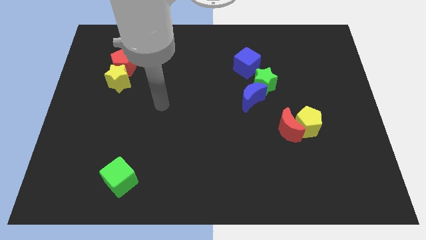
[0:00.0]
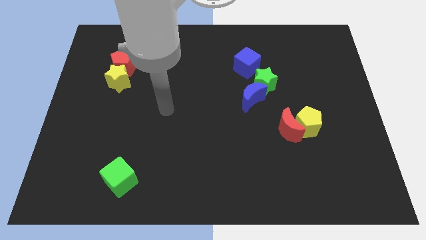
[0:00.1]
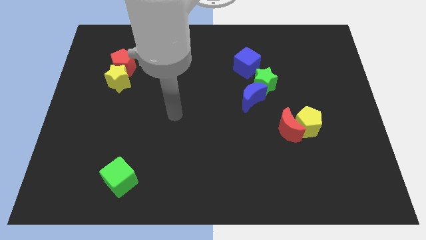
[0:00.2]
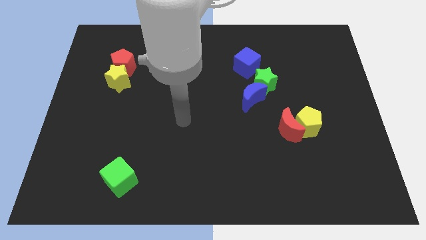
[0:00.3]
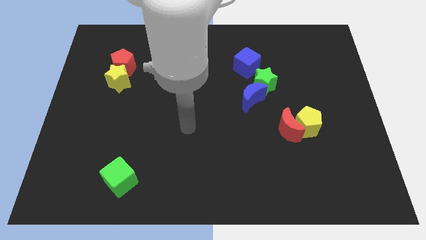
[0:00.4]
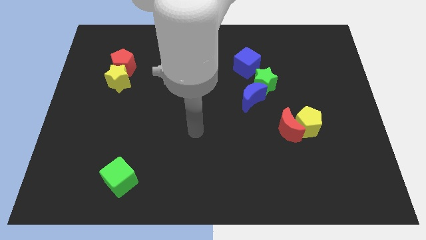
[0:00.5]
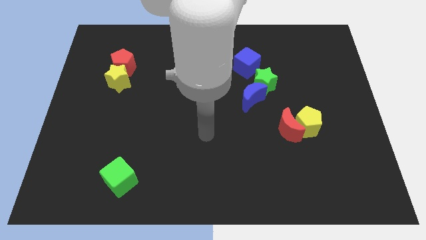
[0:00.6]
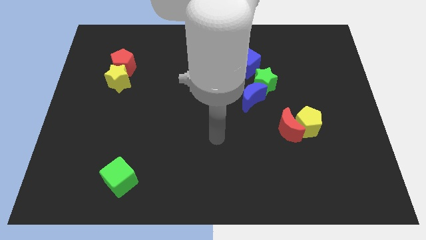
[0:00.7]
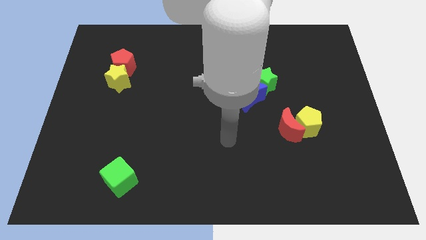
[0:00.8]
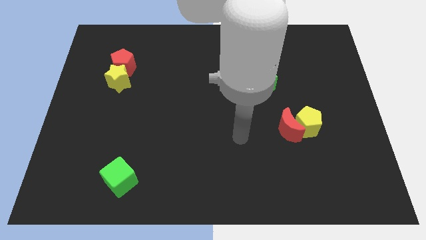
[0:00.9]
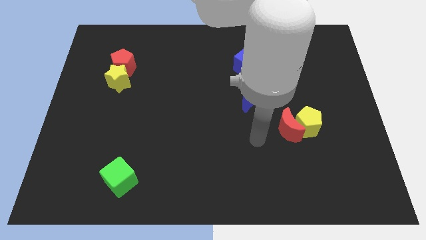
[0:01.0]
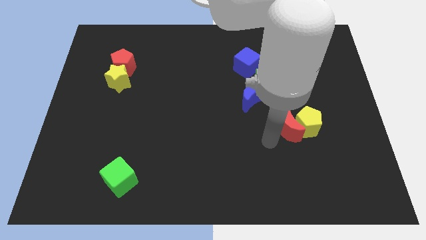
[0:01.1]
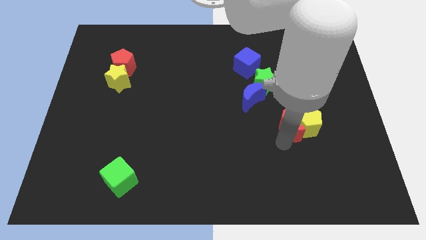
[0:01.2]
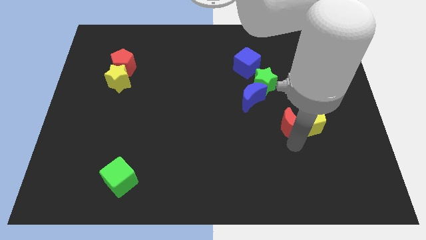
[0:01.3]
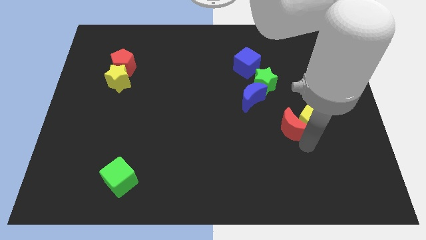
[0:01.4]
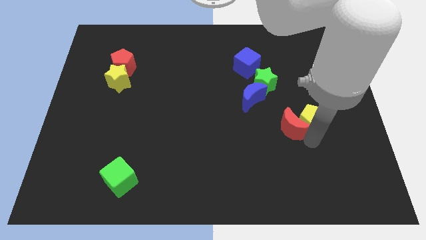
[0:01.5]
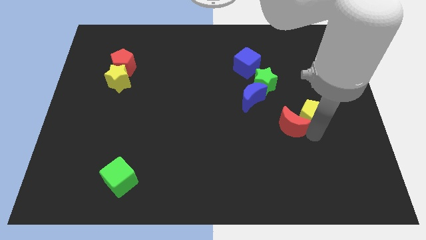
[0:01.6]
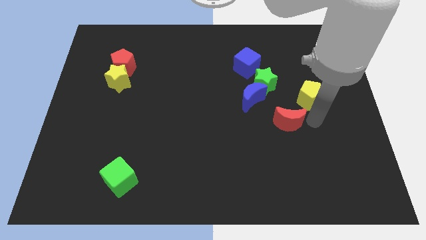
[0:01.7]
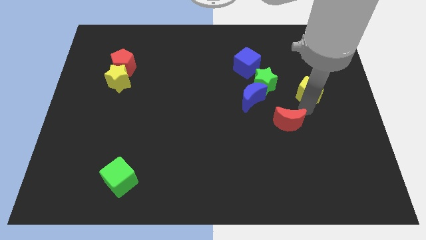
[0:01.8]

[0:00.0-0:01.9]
pull the red moon apart from the yellow pentagon

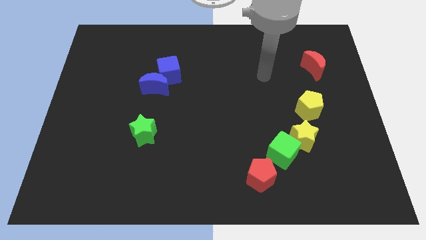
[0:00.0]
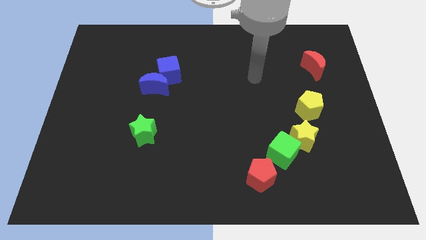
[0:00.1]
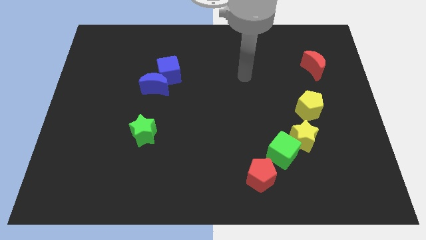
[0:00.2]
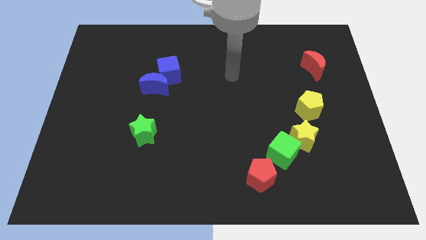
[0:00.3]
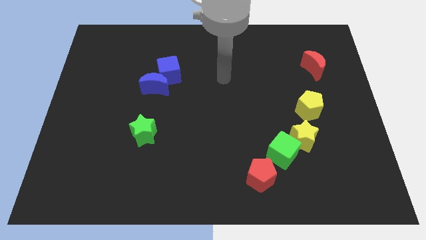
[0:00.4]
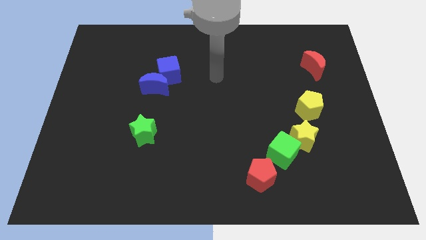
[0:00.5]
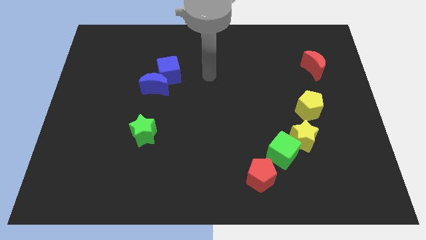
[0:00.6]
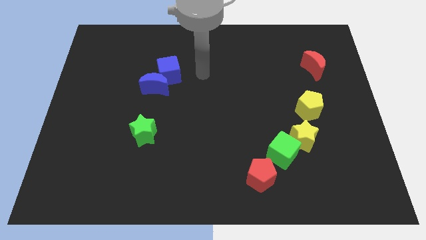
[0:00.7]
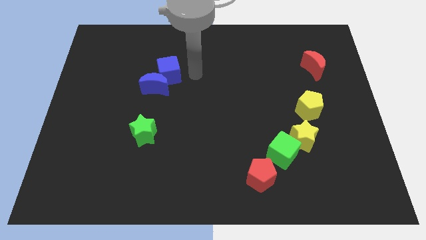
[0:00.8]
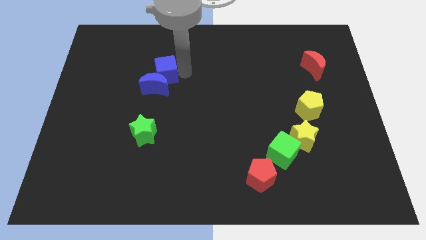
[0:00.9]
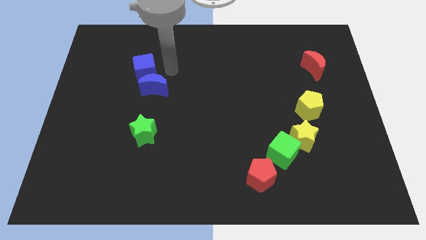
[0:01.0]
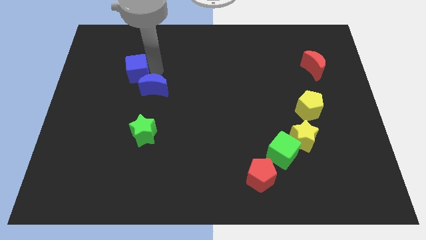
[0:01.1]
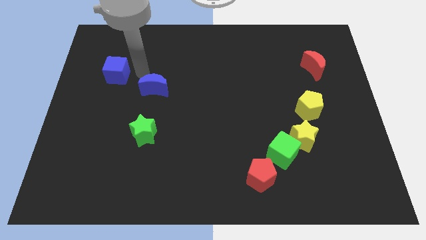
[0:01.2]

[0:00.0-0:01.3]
separate the blue moon from the blue cube

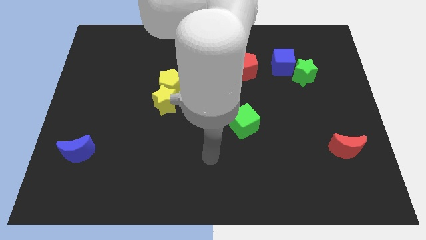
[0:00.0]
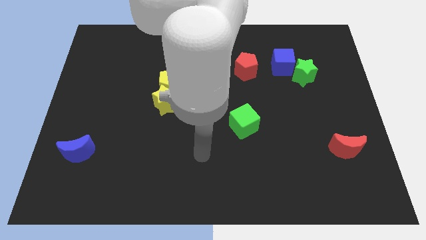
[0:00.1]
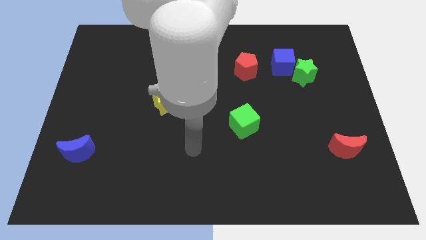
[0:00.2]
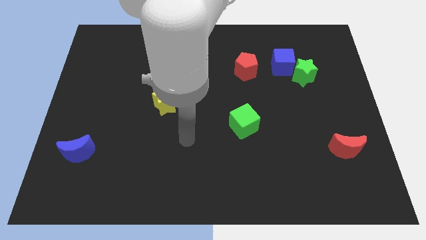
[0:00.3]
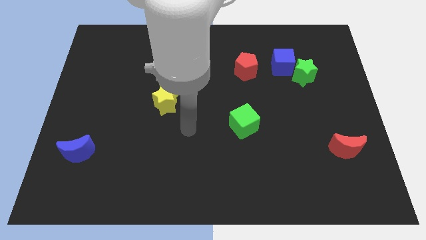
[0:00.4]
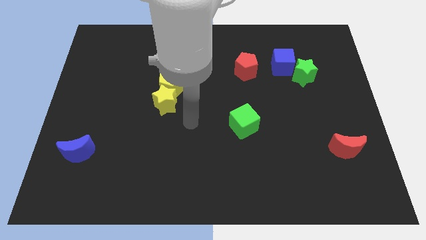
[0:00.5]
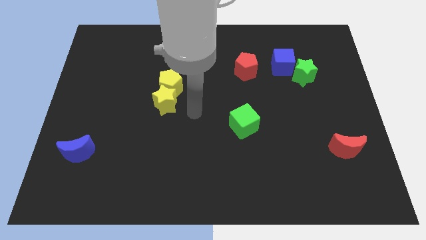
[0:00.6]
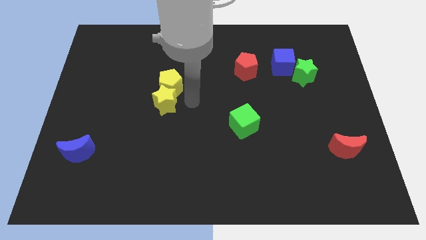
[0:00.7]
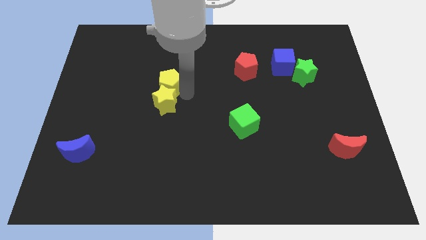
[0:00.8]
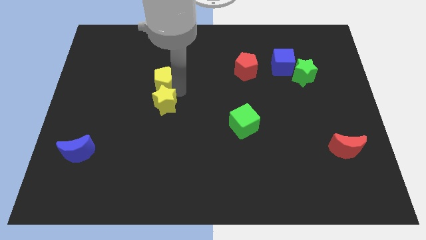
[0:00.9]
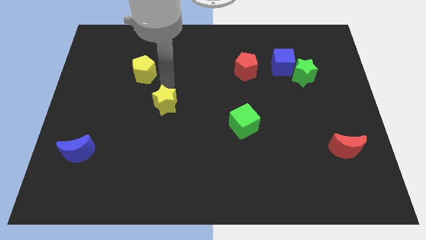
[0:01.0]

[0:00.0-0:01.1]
pull the yellow star apart from the yellow pentagon

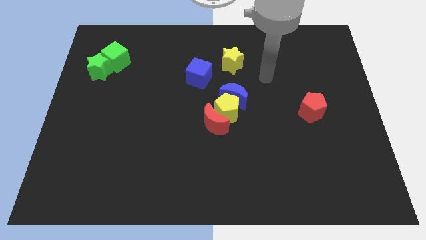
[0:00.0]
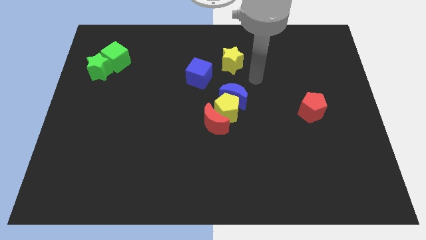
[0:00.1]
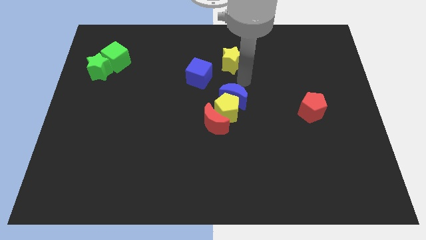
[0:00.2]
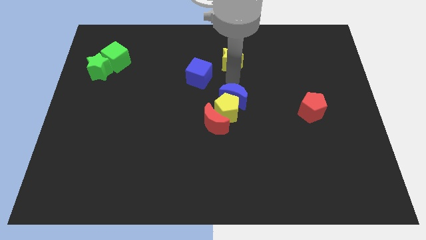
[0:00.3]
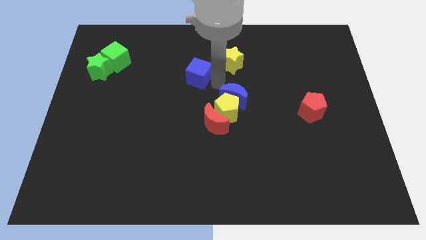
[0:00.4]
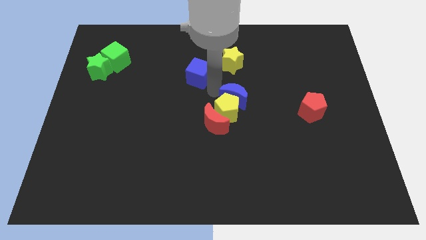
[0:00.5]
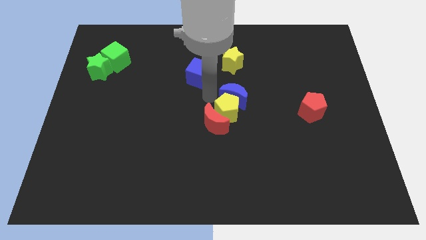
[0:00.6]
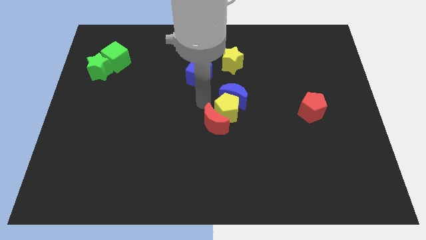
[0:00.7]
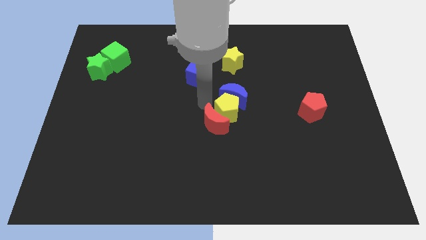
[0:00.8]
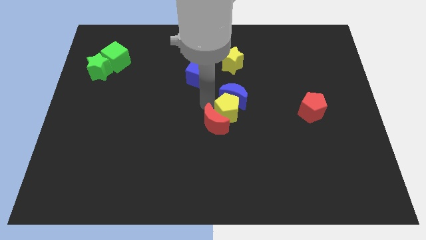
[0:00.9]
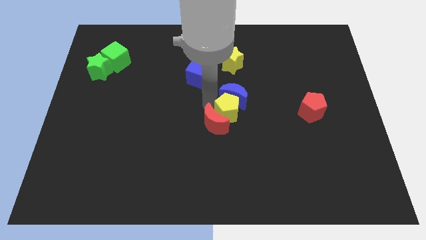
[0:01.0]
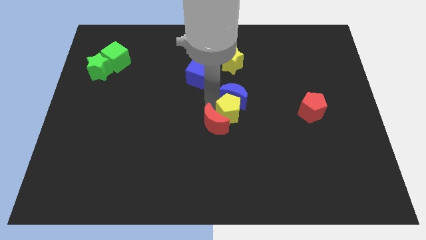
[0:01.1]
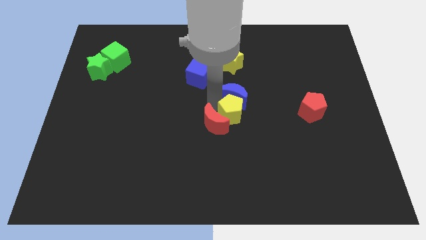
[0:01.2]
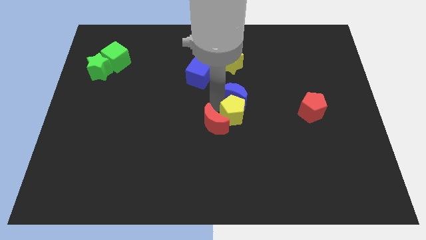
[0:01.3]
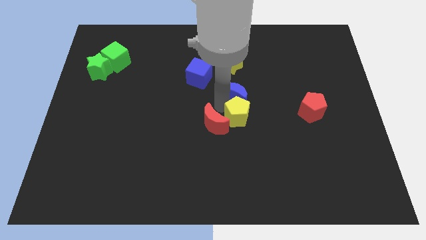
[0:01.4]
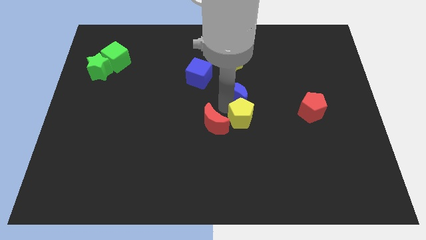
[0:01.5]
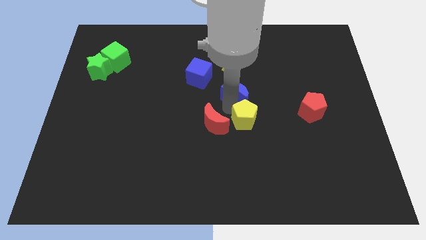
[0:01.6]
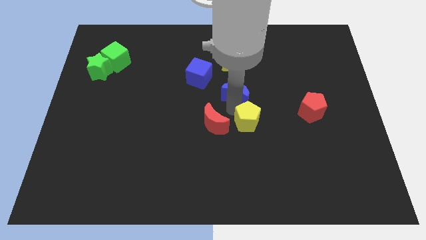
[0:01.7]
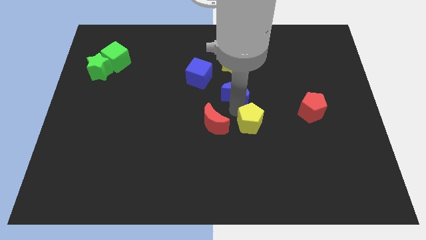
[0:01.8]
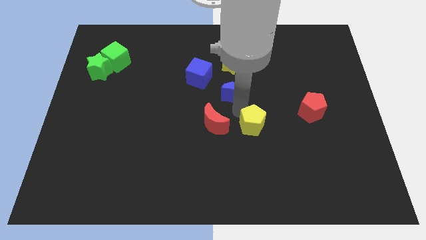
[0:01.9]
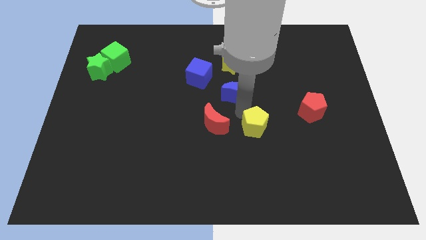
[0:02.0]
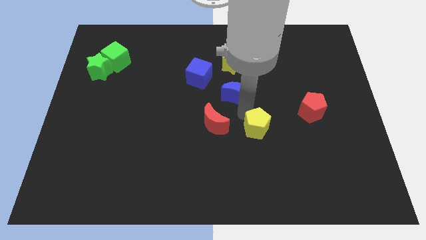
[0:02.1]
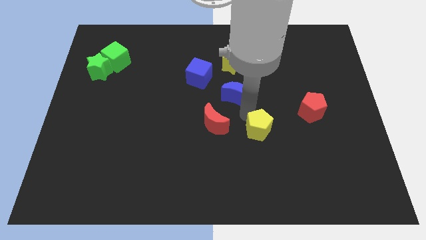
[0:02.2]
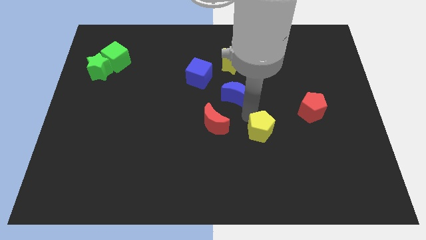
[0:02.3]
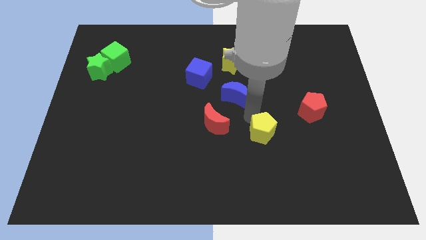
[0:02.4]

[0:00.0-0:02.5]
separate the yellow pentagon from the blue moon and red moon

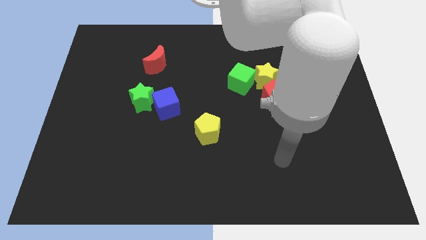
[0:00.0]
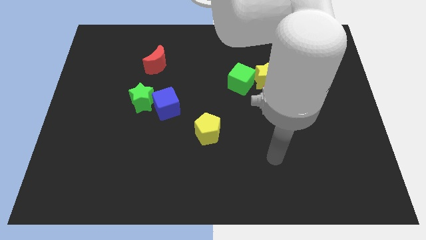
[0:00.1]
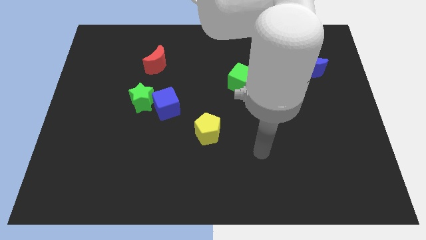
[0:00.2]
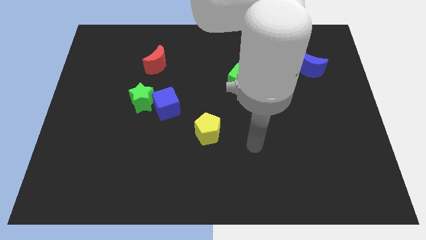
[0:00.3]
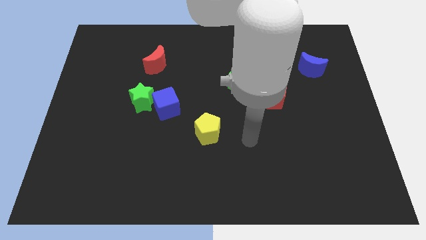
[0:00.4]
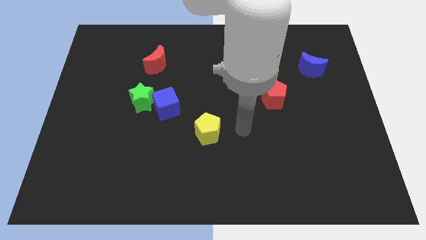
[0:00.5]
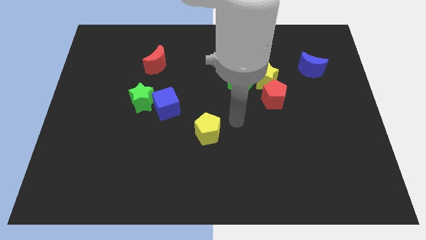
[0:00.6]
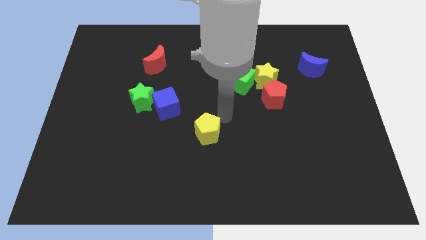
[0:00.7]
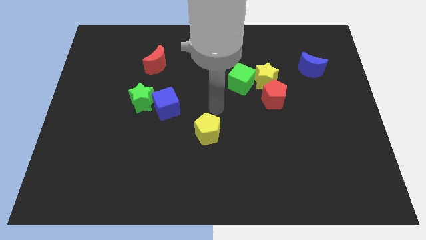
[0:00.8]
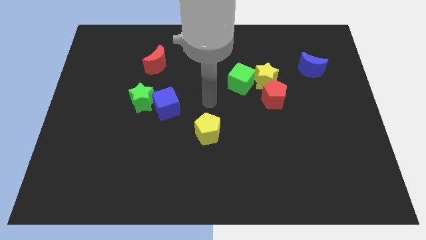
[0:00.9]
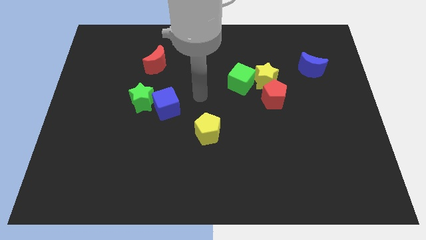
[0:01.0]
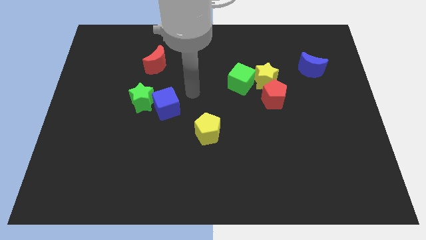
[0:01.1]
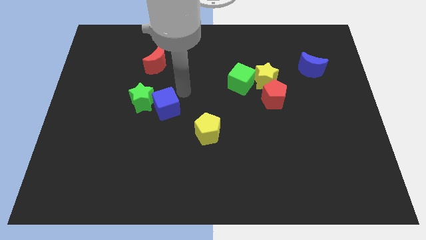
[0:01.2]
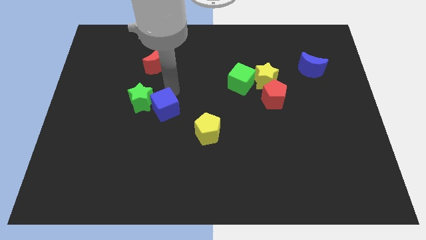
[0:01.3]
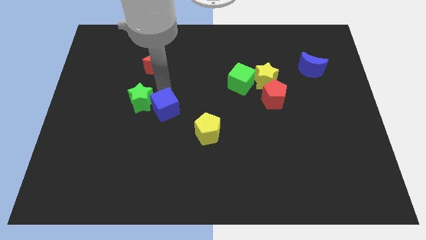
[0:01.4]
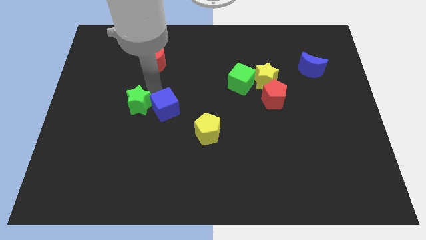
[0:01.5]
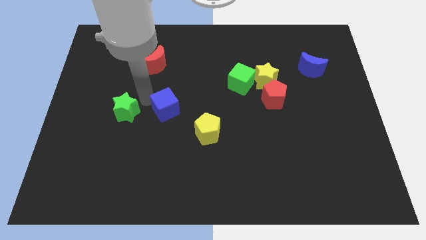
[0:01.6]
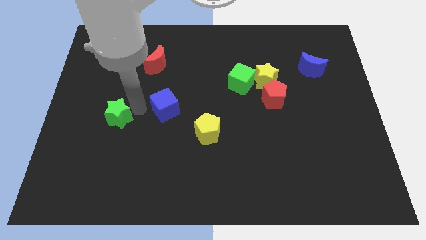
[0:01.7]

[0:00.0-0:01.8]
separate the blue cube from the green star

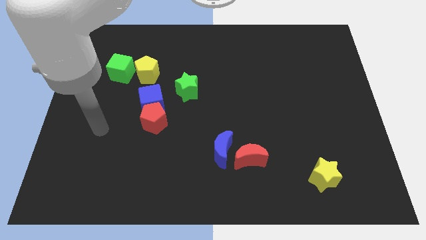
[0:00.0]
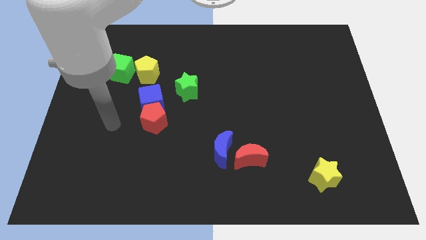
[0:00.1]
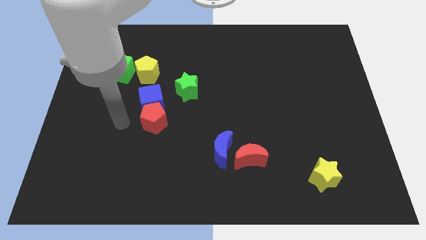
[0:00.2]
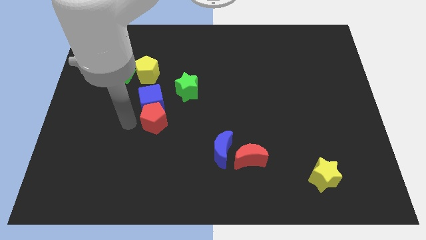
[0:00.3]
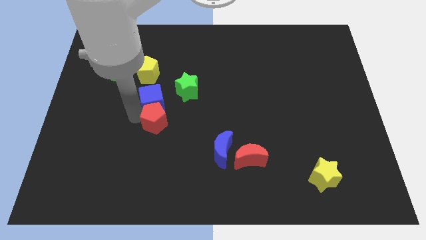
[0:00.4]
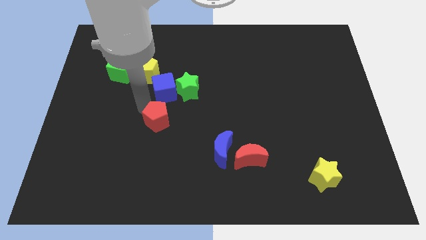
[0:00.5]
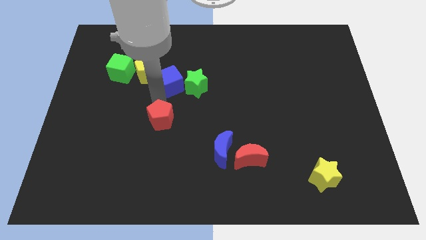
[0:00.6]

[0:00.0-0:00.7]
pull the red pentagon apart from the blue cube
